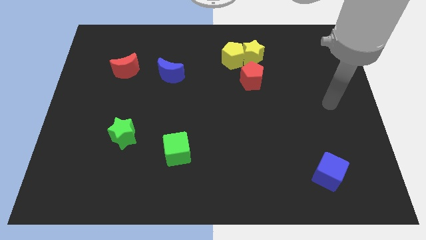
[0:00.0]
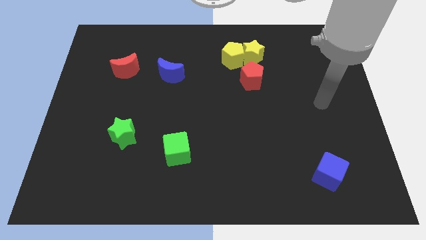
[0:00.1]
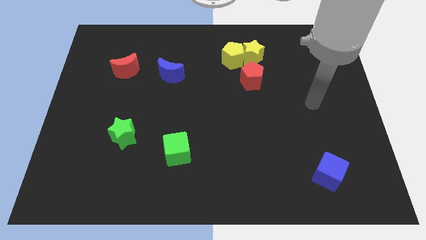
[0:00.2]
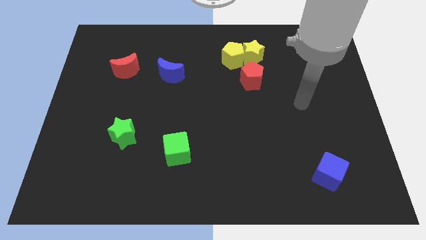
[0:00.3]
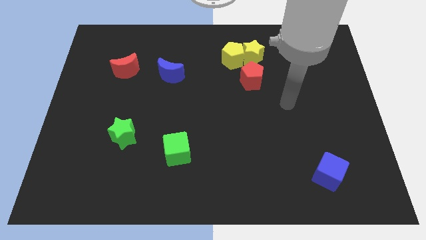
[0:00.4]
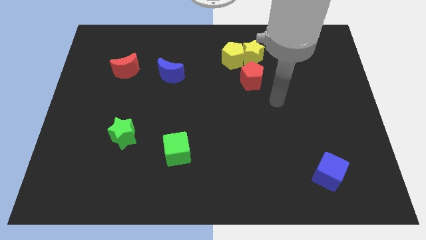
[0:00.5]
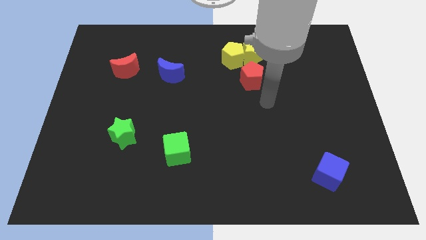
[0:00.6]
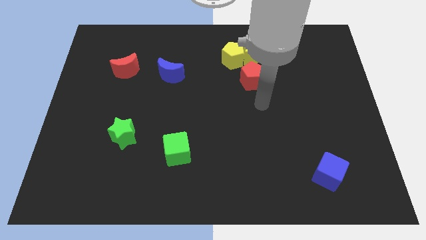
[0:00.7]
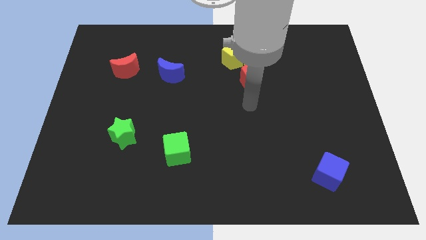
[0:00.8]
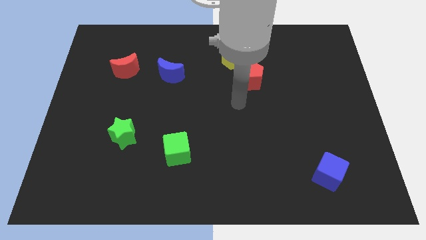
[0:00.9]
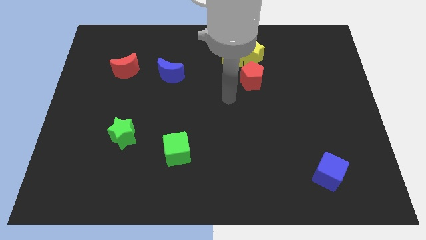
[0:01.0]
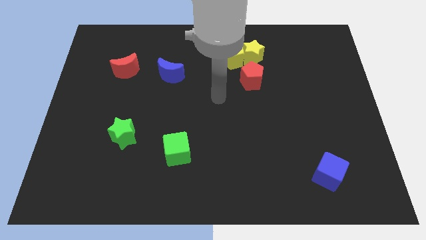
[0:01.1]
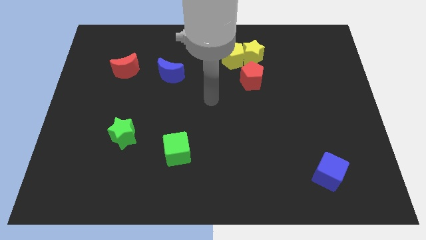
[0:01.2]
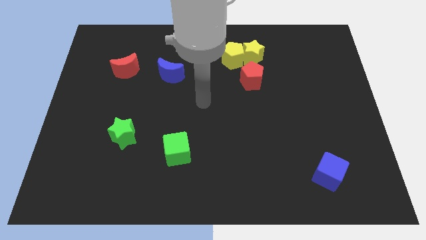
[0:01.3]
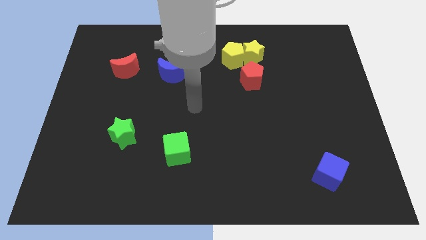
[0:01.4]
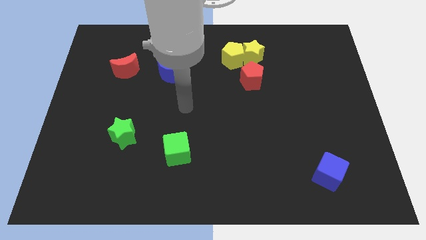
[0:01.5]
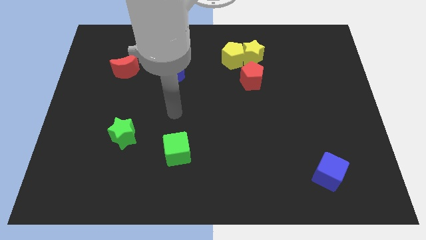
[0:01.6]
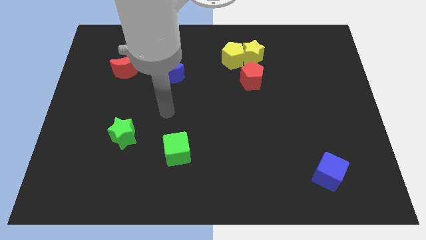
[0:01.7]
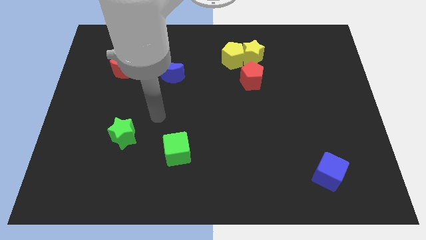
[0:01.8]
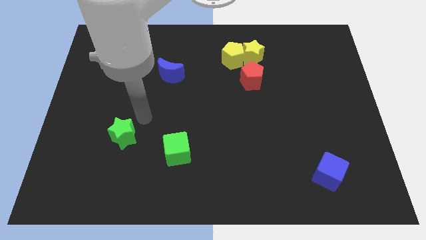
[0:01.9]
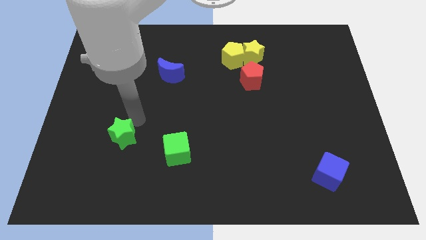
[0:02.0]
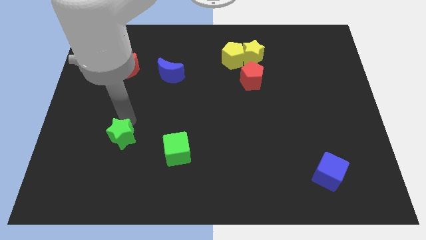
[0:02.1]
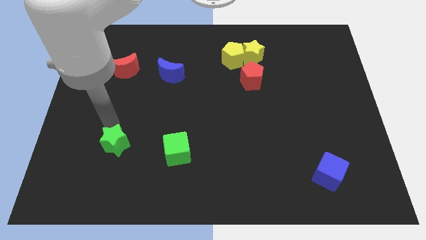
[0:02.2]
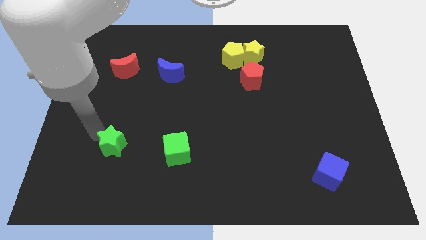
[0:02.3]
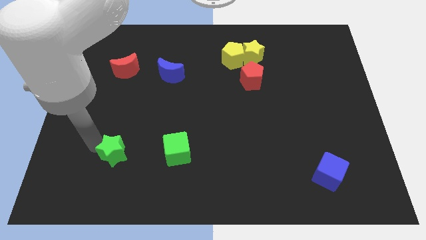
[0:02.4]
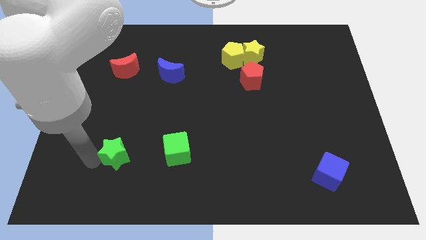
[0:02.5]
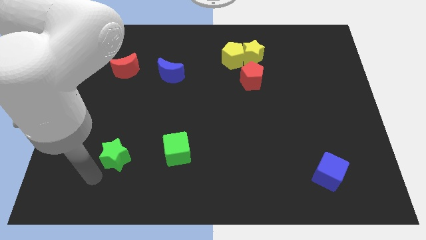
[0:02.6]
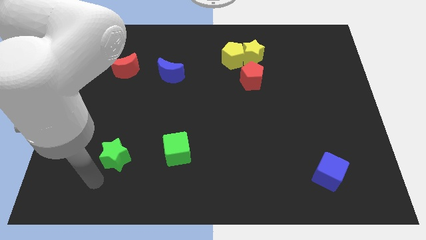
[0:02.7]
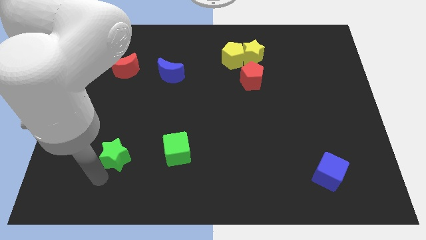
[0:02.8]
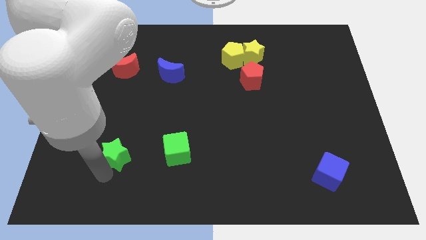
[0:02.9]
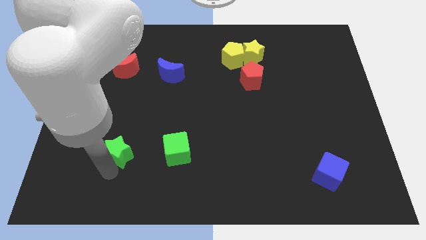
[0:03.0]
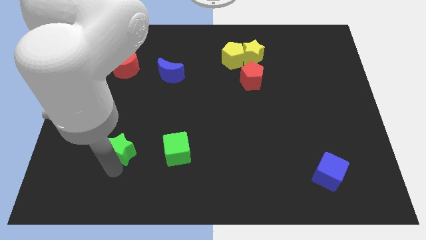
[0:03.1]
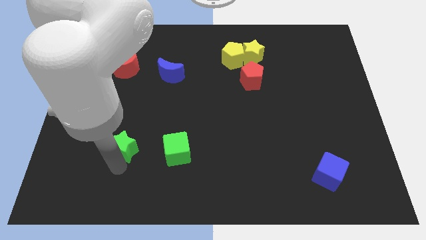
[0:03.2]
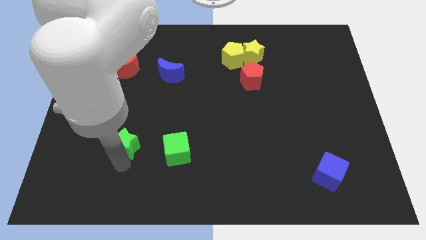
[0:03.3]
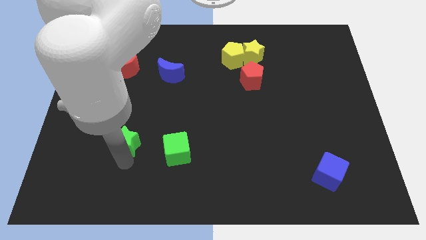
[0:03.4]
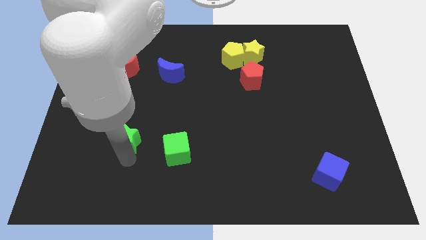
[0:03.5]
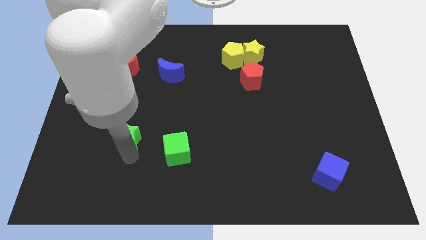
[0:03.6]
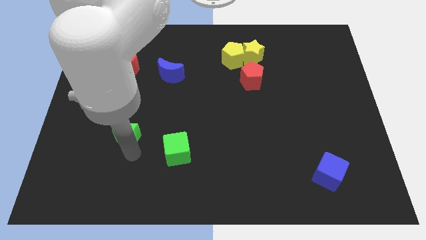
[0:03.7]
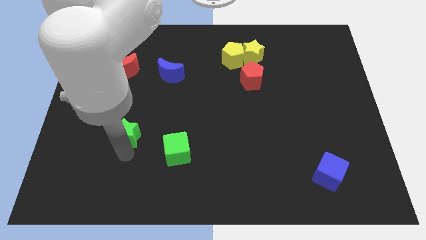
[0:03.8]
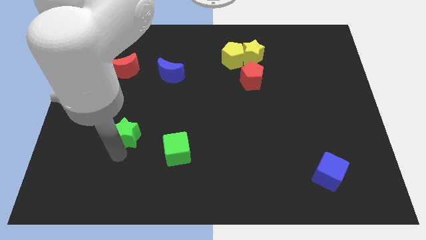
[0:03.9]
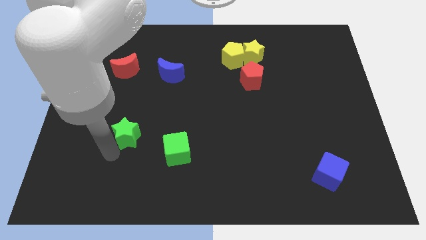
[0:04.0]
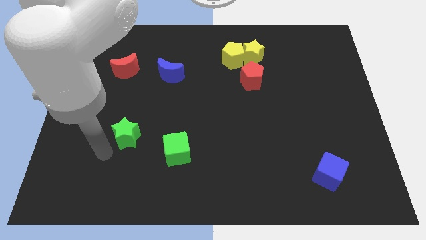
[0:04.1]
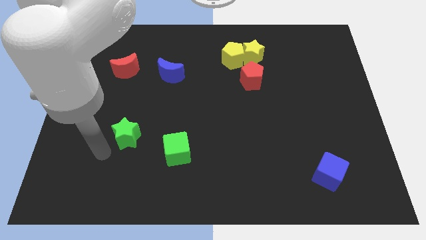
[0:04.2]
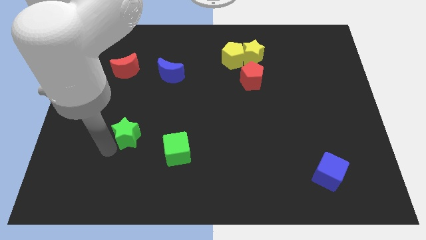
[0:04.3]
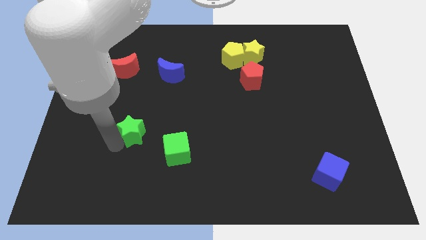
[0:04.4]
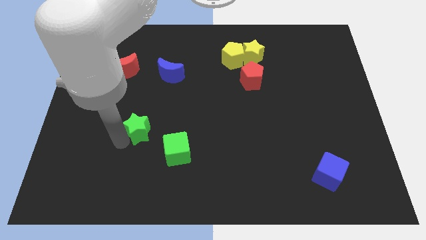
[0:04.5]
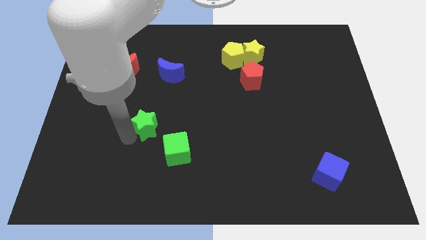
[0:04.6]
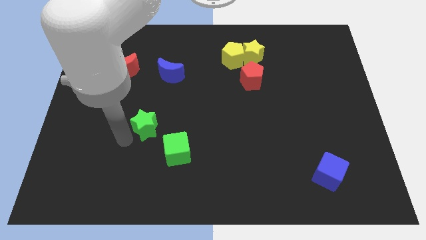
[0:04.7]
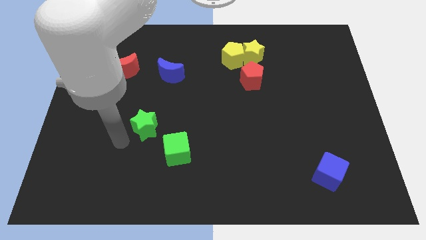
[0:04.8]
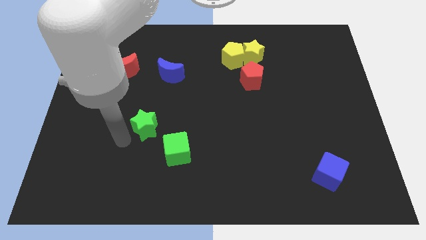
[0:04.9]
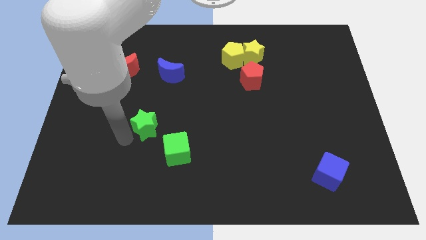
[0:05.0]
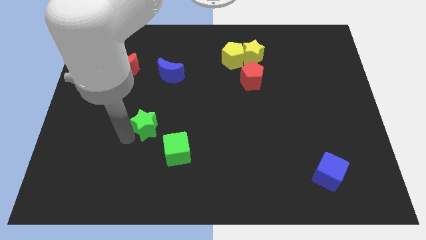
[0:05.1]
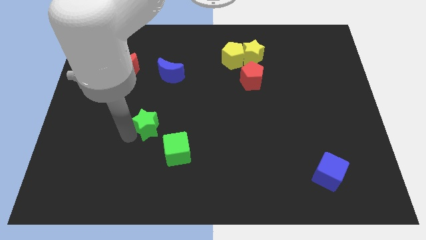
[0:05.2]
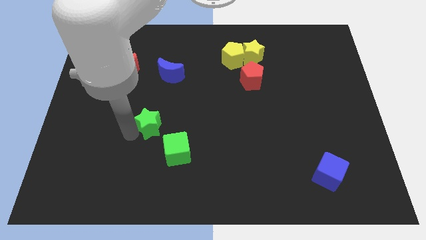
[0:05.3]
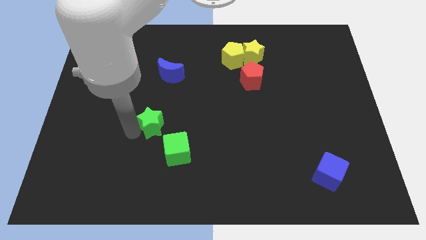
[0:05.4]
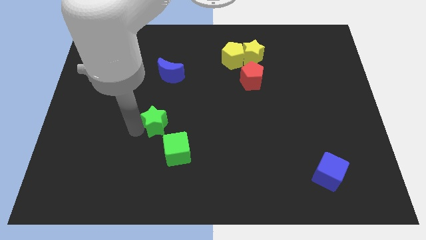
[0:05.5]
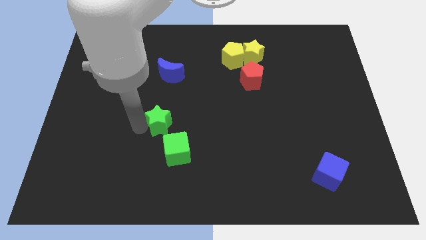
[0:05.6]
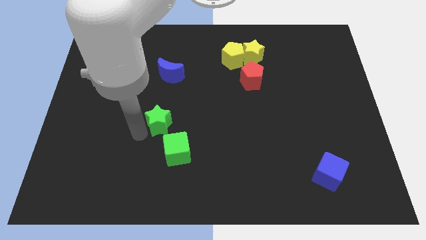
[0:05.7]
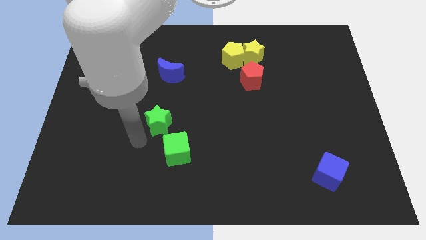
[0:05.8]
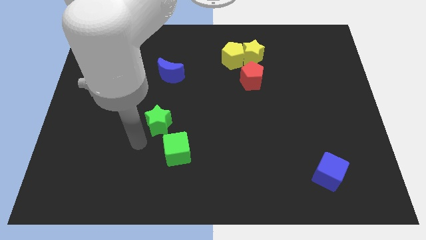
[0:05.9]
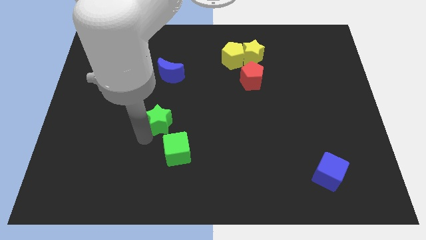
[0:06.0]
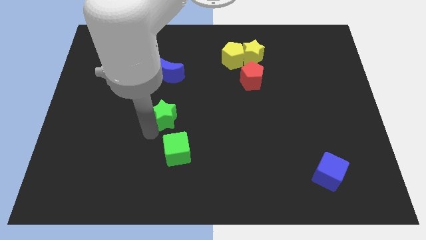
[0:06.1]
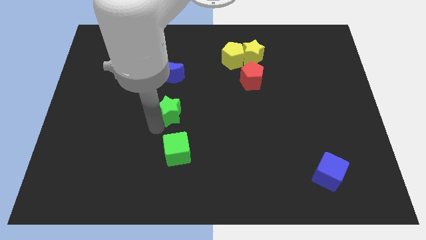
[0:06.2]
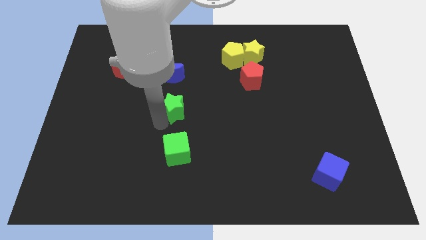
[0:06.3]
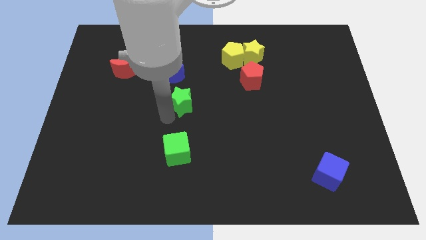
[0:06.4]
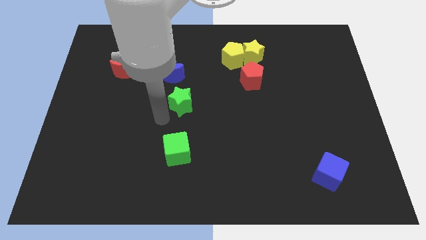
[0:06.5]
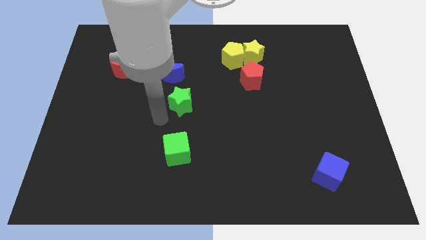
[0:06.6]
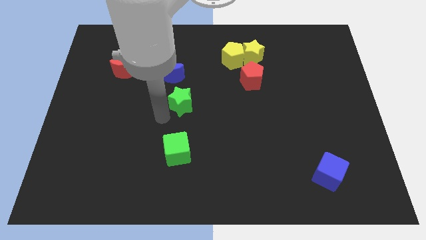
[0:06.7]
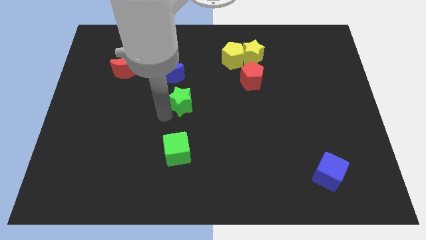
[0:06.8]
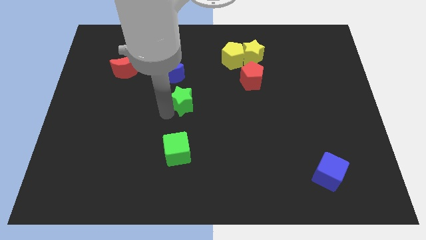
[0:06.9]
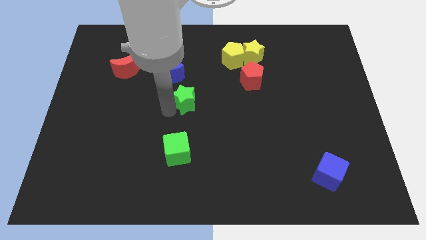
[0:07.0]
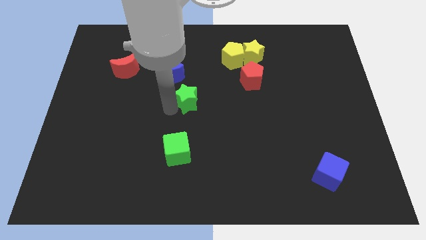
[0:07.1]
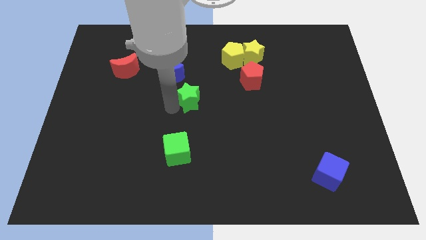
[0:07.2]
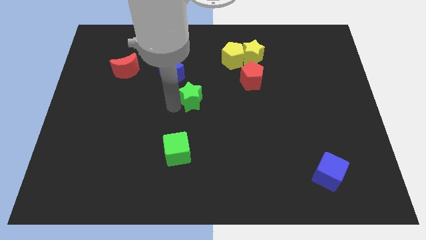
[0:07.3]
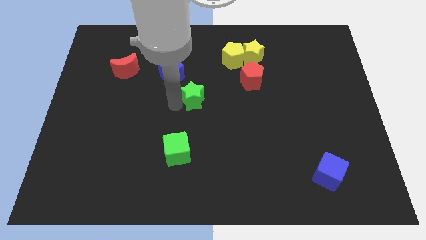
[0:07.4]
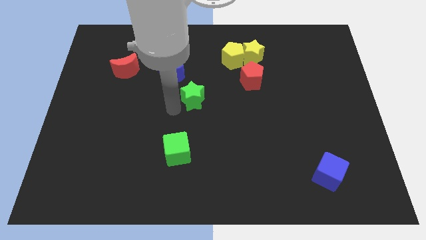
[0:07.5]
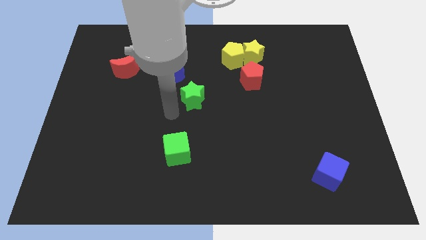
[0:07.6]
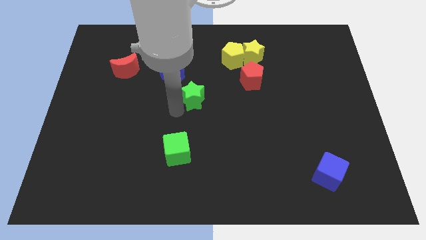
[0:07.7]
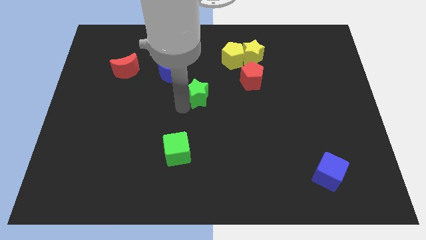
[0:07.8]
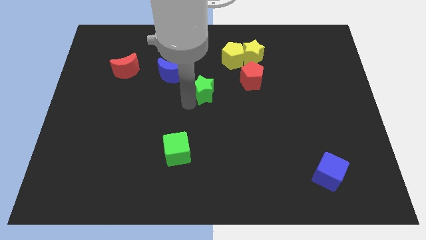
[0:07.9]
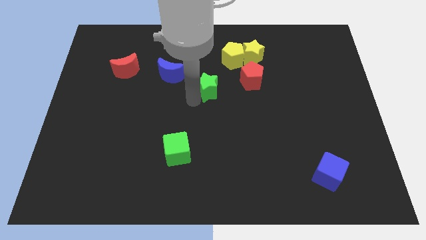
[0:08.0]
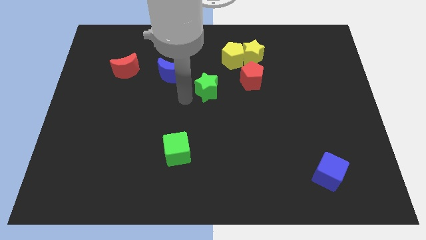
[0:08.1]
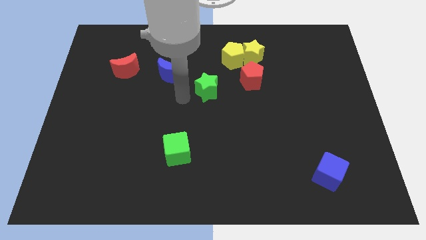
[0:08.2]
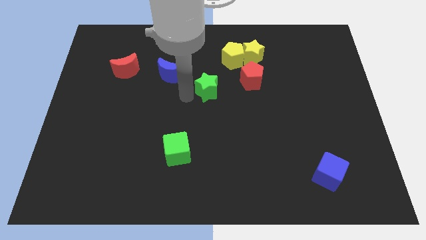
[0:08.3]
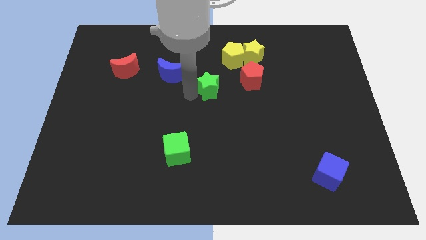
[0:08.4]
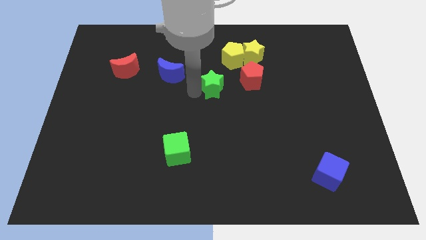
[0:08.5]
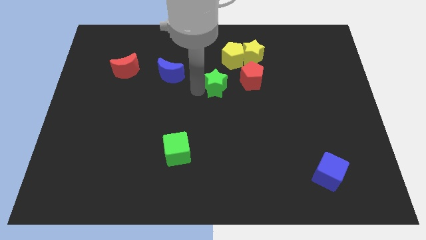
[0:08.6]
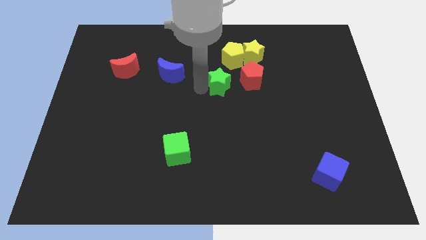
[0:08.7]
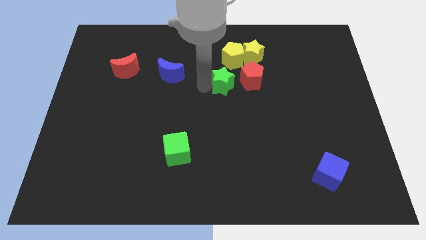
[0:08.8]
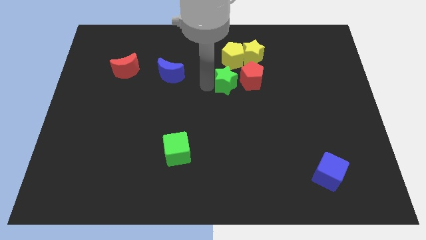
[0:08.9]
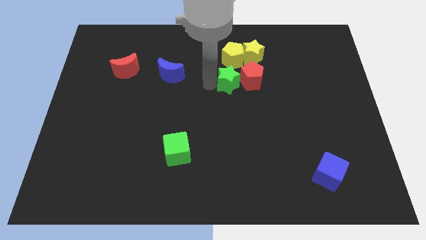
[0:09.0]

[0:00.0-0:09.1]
push the green star close to the red pentagon
